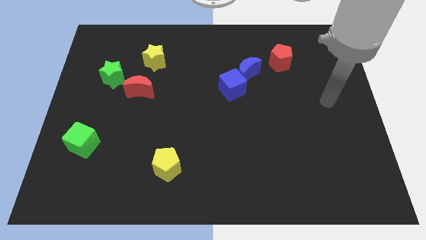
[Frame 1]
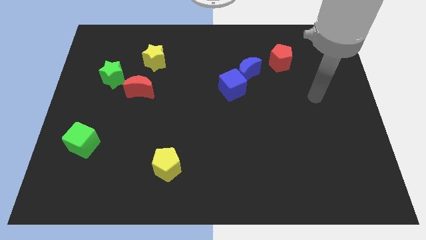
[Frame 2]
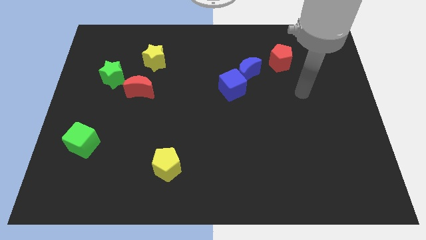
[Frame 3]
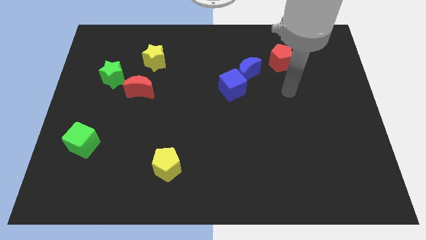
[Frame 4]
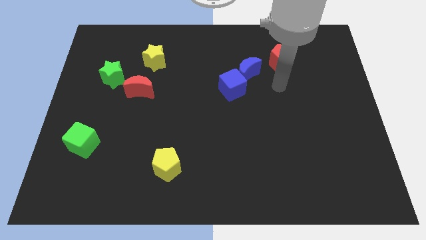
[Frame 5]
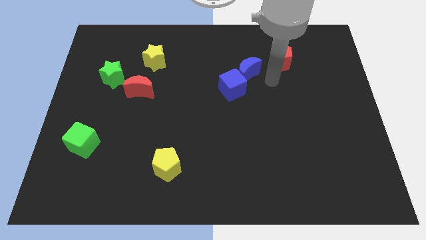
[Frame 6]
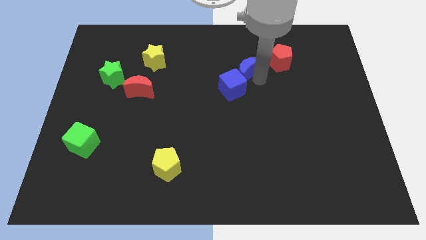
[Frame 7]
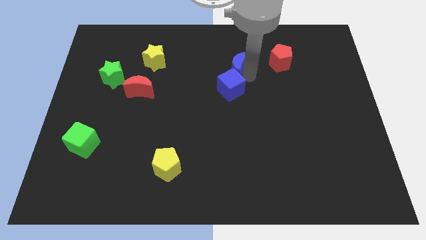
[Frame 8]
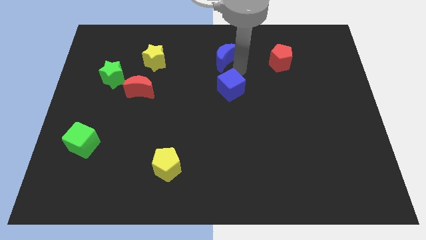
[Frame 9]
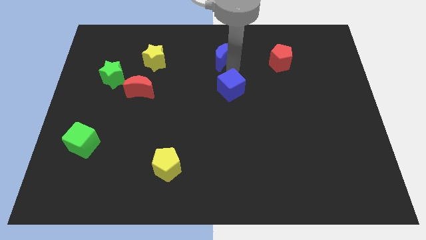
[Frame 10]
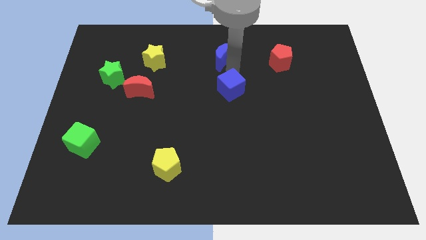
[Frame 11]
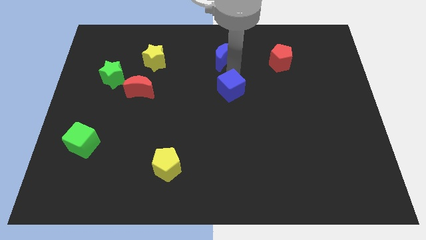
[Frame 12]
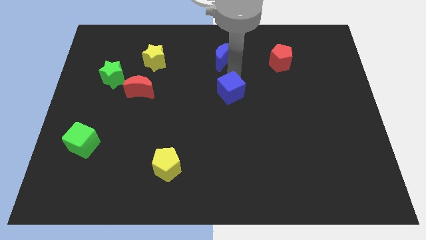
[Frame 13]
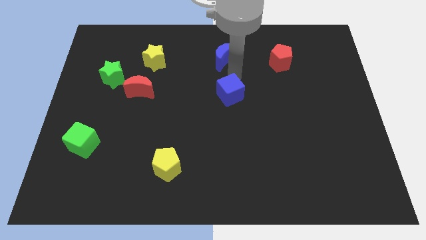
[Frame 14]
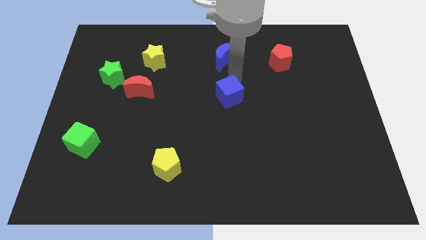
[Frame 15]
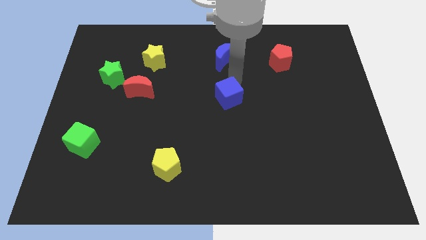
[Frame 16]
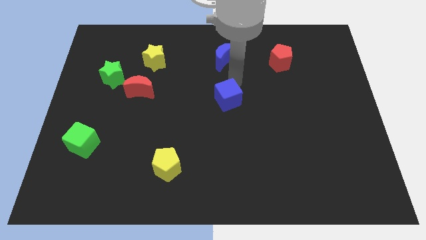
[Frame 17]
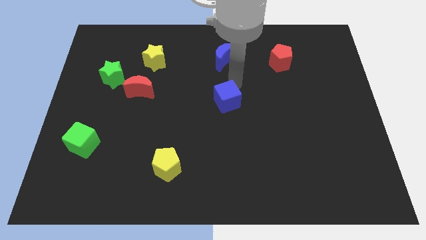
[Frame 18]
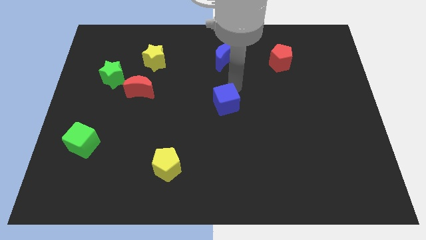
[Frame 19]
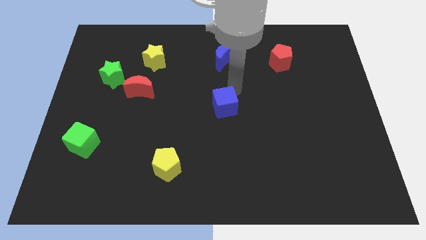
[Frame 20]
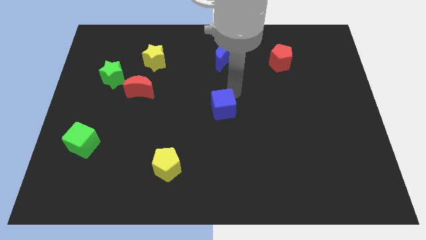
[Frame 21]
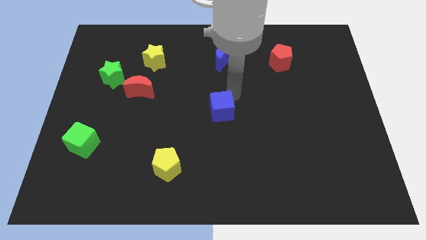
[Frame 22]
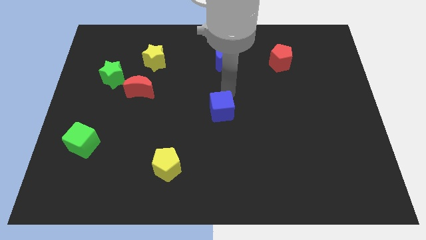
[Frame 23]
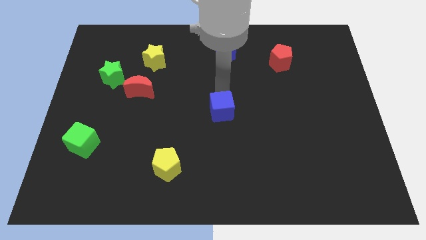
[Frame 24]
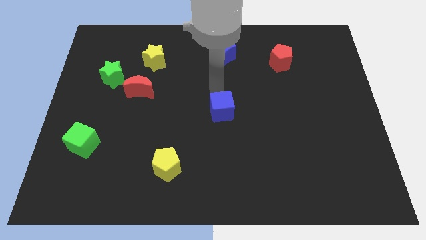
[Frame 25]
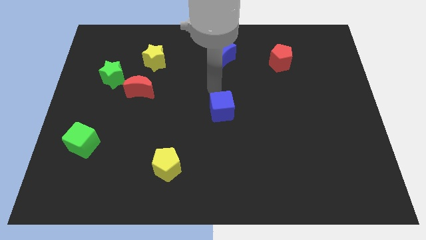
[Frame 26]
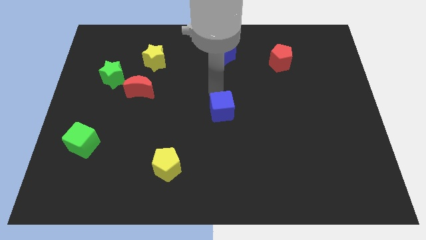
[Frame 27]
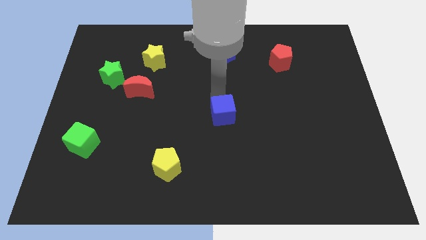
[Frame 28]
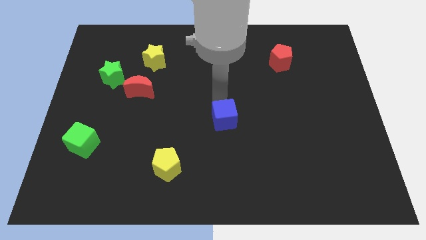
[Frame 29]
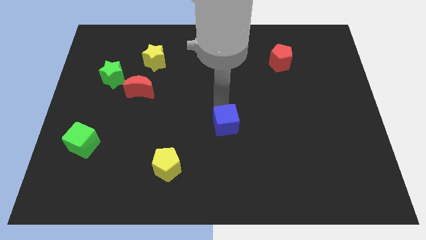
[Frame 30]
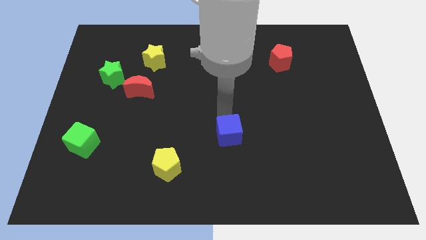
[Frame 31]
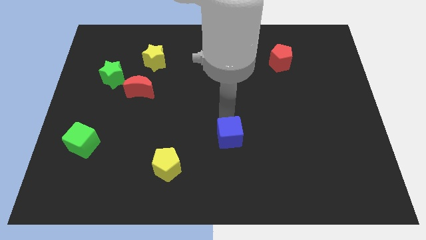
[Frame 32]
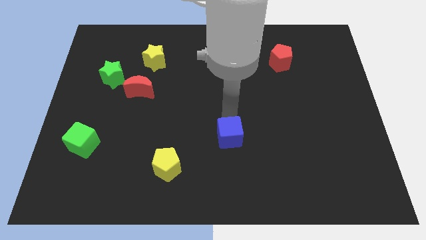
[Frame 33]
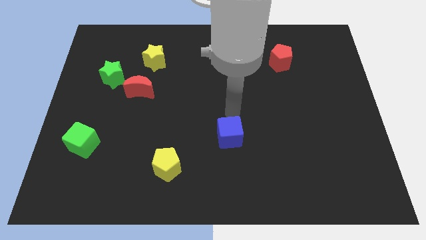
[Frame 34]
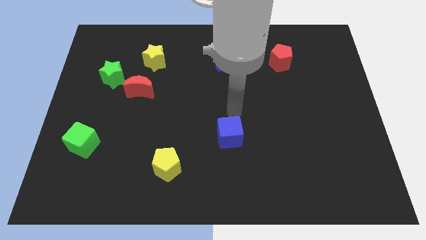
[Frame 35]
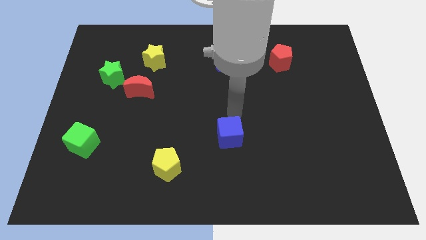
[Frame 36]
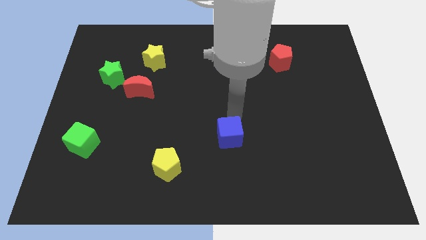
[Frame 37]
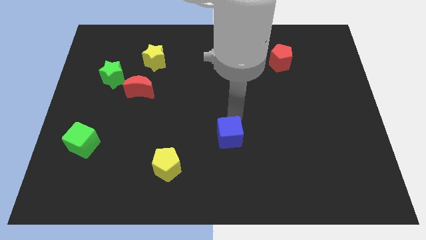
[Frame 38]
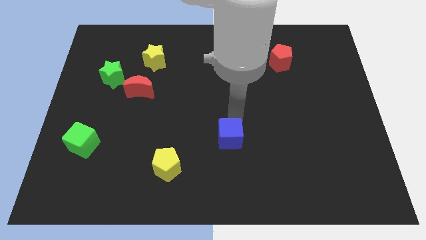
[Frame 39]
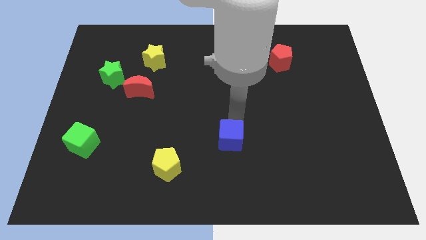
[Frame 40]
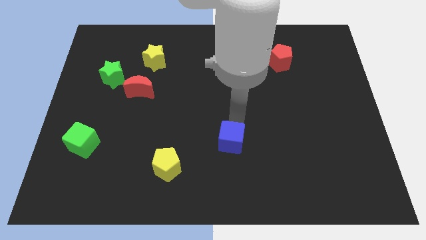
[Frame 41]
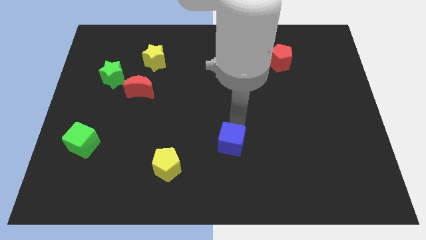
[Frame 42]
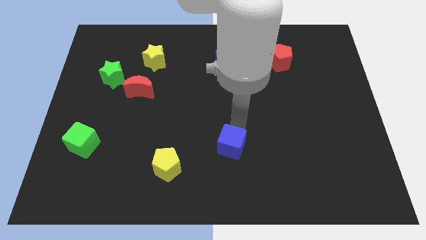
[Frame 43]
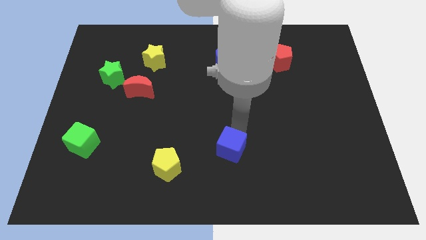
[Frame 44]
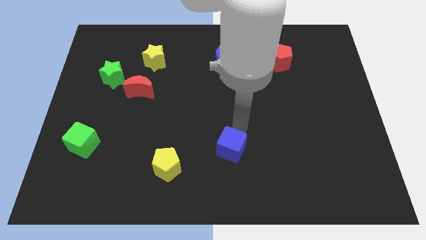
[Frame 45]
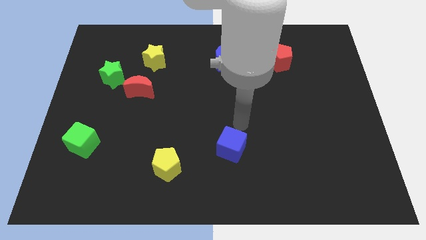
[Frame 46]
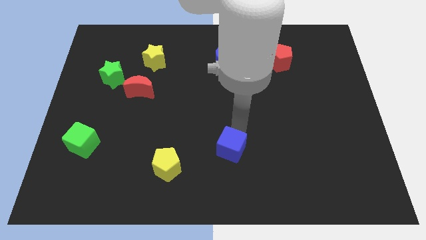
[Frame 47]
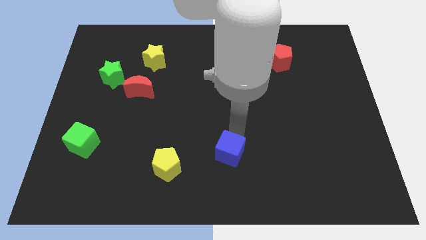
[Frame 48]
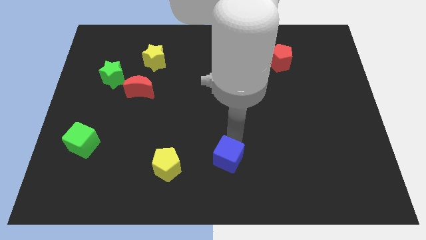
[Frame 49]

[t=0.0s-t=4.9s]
slide the blue cube to the bottom side

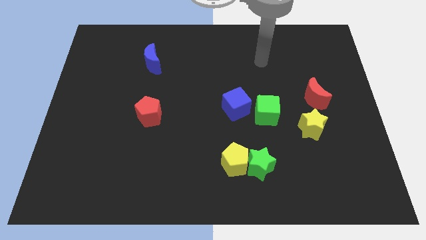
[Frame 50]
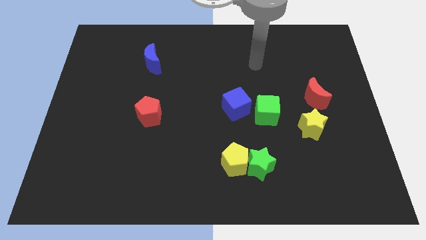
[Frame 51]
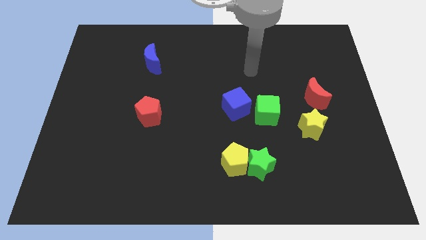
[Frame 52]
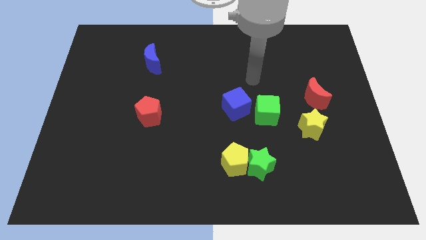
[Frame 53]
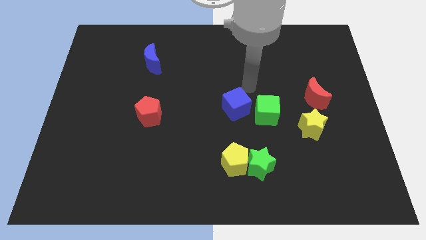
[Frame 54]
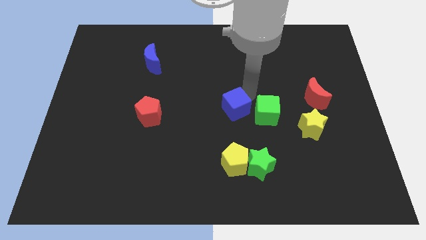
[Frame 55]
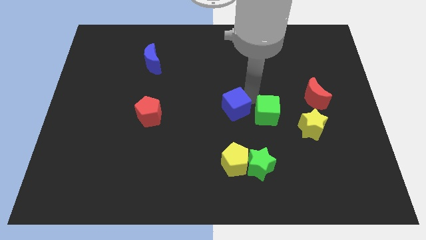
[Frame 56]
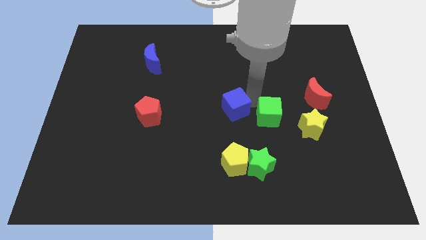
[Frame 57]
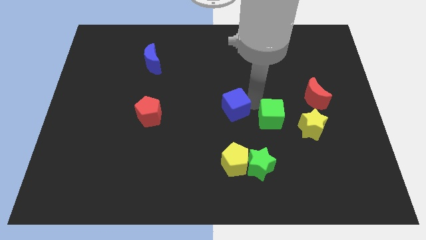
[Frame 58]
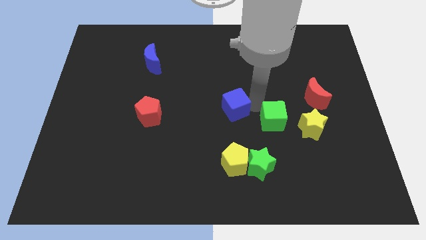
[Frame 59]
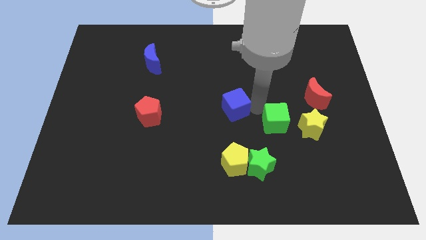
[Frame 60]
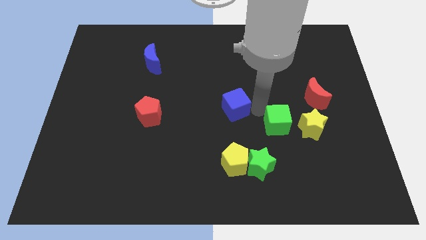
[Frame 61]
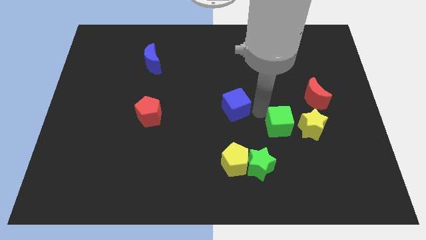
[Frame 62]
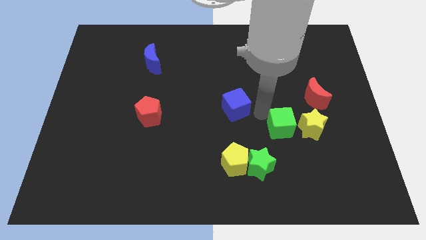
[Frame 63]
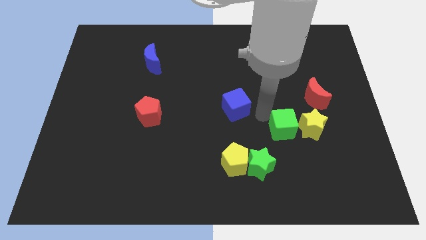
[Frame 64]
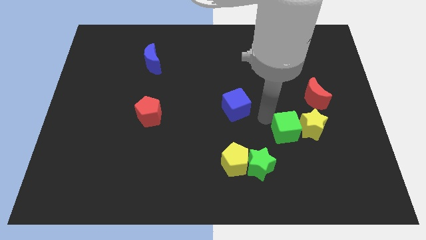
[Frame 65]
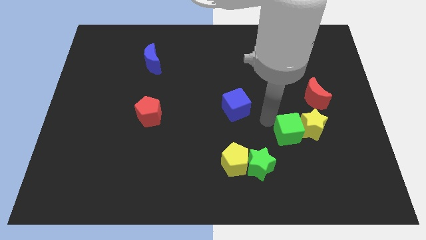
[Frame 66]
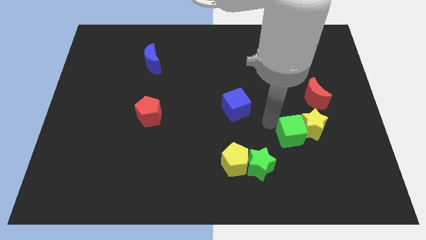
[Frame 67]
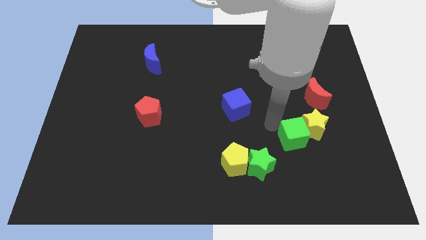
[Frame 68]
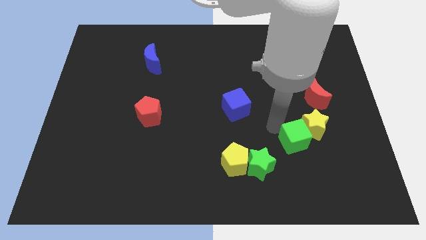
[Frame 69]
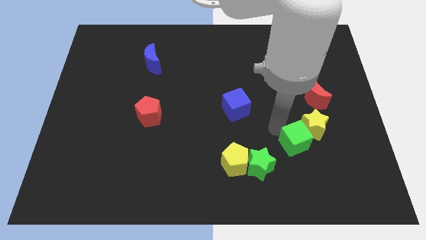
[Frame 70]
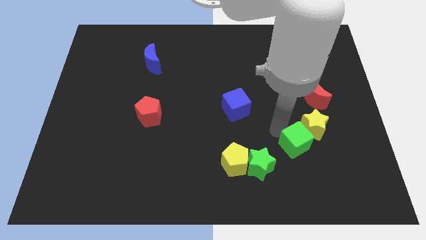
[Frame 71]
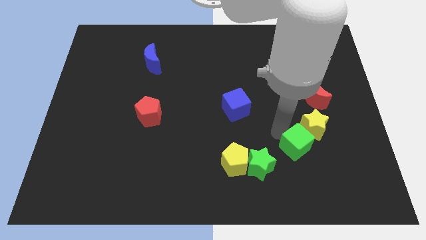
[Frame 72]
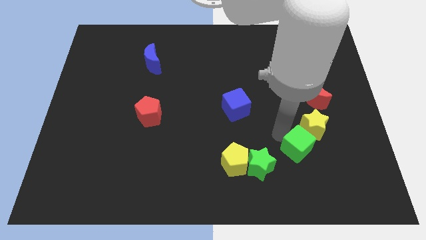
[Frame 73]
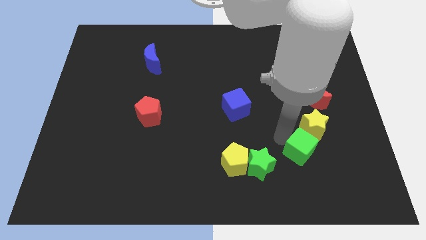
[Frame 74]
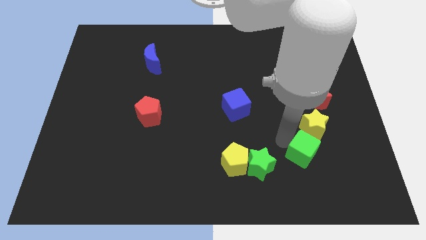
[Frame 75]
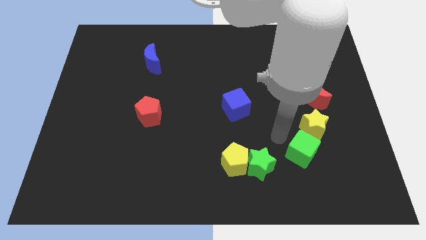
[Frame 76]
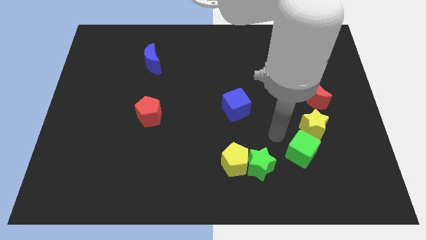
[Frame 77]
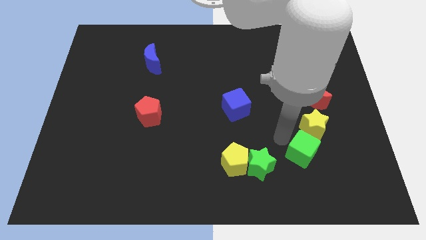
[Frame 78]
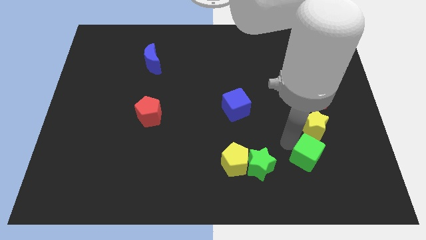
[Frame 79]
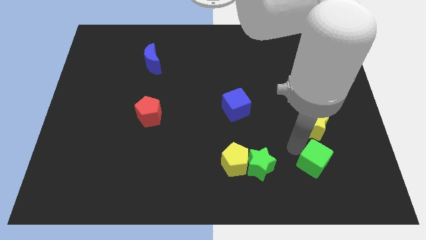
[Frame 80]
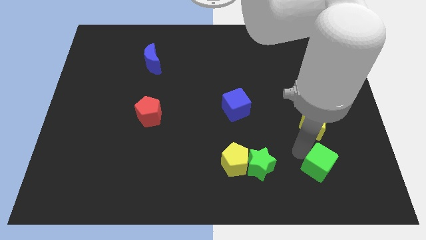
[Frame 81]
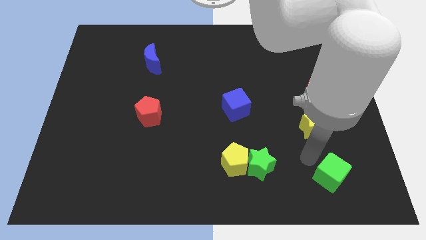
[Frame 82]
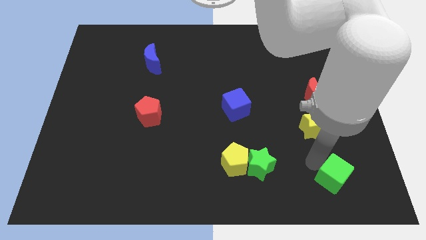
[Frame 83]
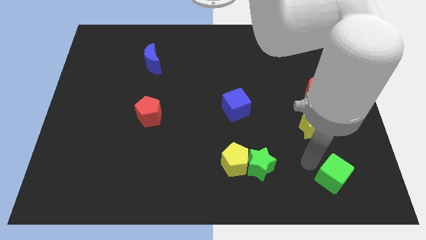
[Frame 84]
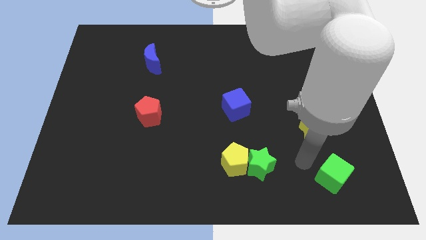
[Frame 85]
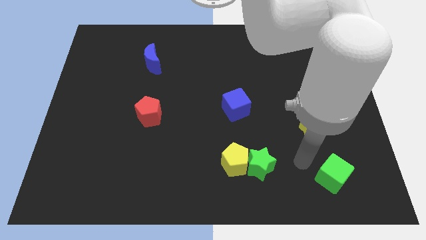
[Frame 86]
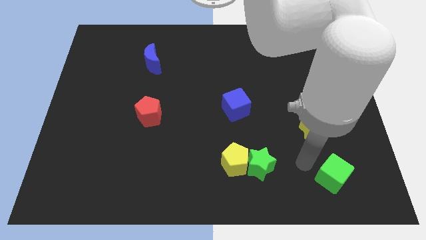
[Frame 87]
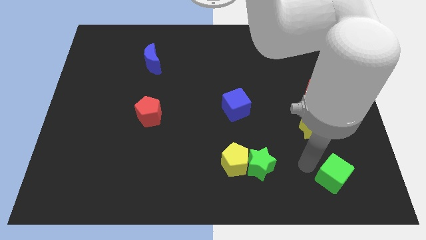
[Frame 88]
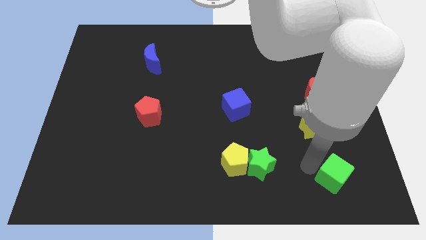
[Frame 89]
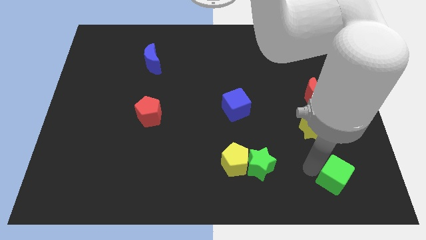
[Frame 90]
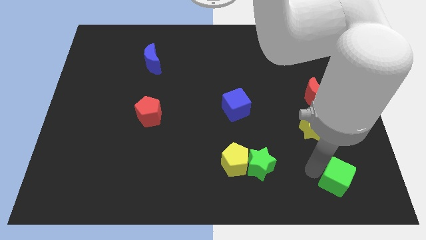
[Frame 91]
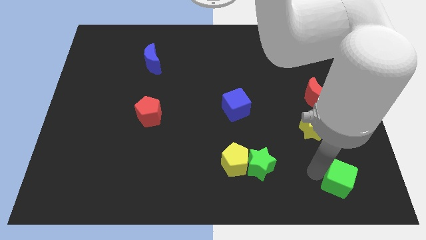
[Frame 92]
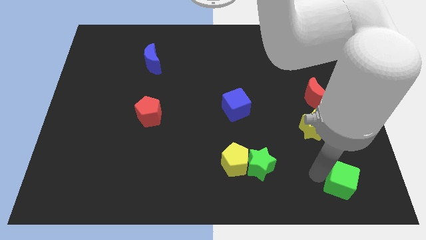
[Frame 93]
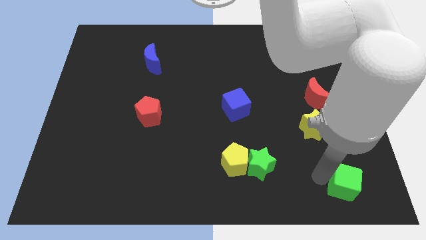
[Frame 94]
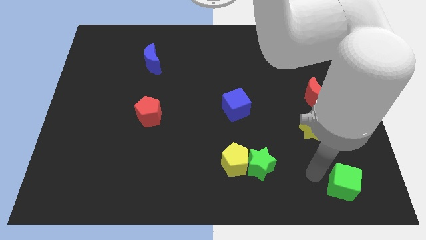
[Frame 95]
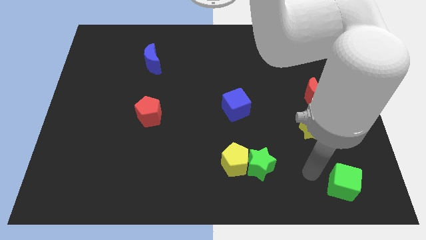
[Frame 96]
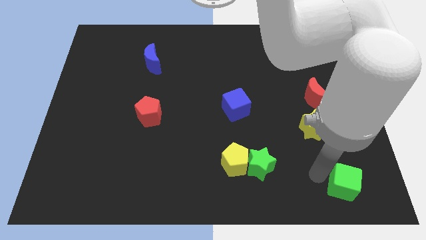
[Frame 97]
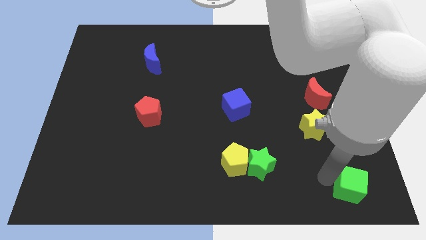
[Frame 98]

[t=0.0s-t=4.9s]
put the green cube to the bottom right of the board
